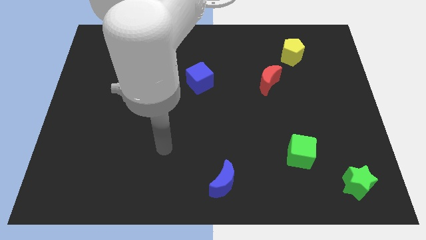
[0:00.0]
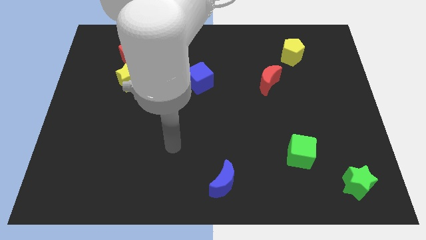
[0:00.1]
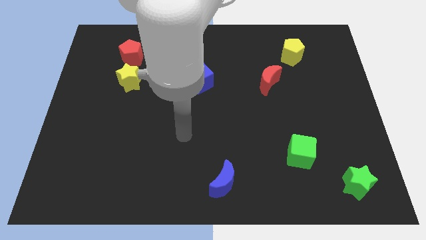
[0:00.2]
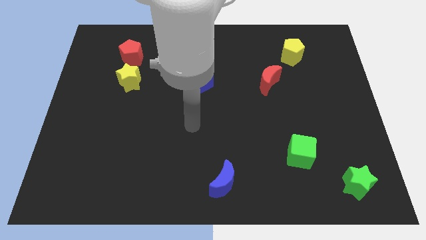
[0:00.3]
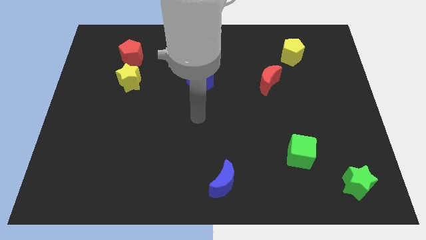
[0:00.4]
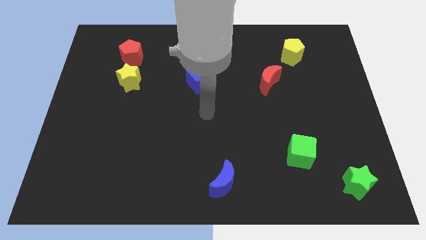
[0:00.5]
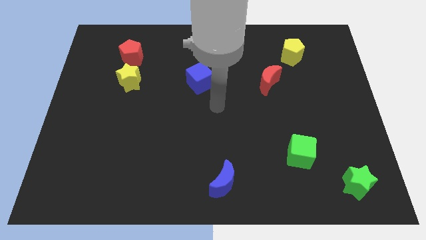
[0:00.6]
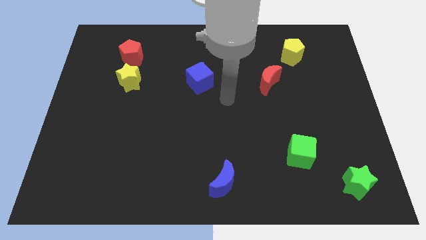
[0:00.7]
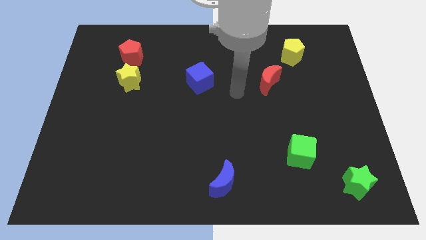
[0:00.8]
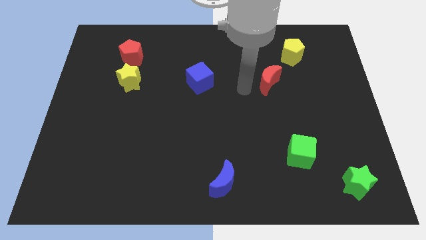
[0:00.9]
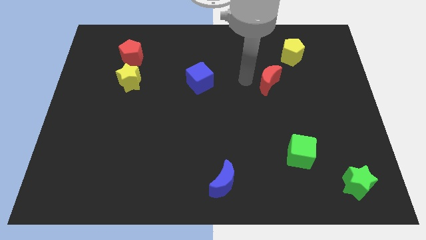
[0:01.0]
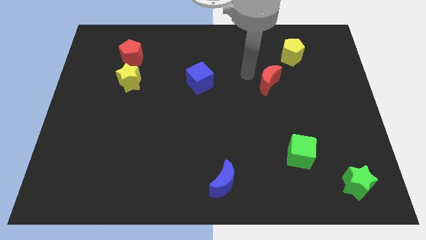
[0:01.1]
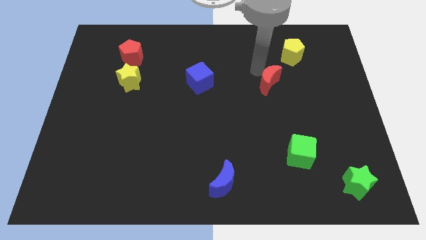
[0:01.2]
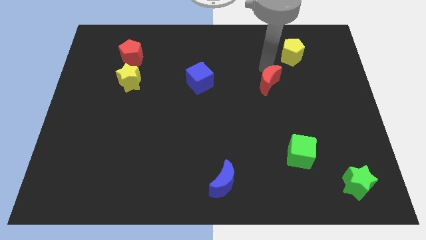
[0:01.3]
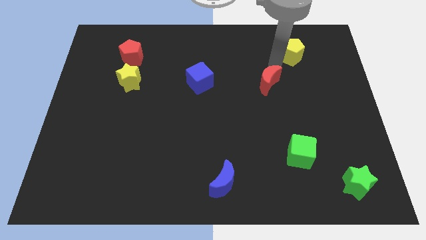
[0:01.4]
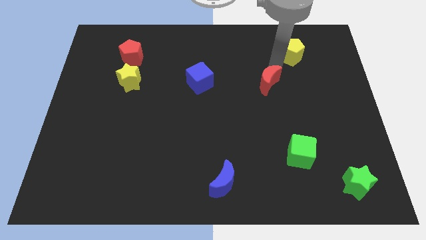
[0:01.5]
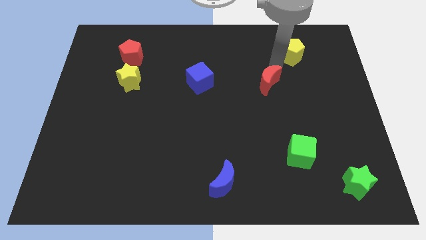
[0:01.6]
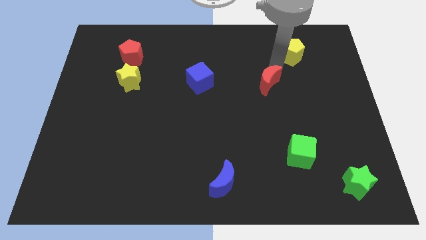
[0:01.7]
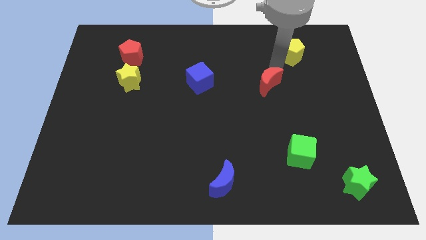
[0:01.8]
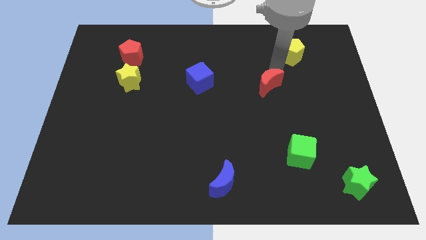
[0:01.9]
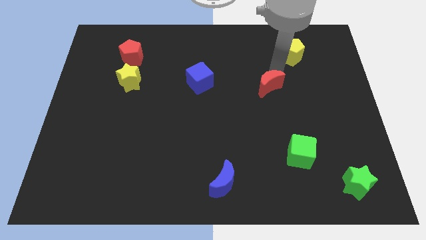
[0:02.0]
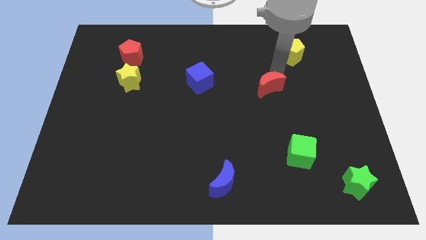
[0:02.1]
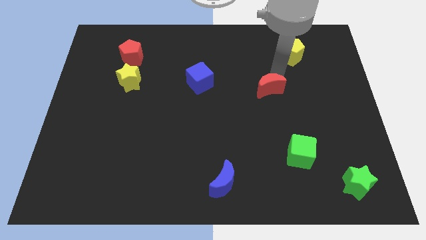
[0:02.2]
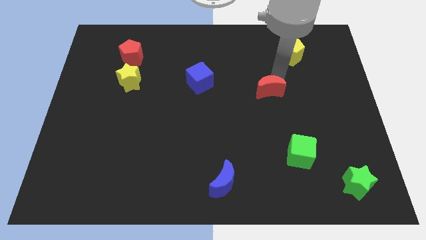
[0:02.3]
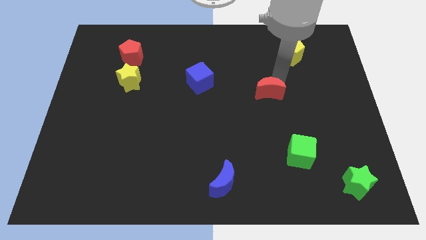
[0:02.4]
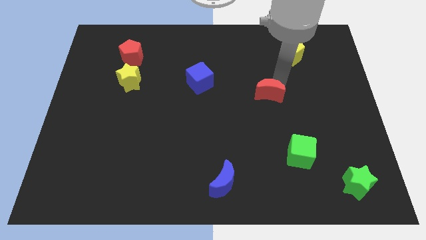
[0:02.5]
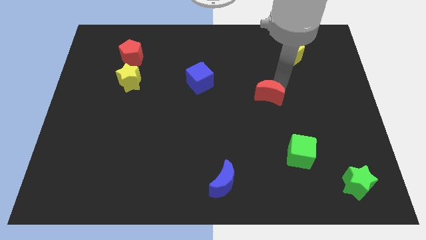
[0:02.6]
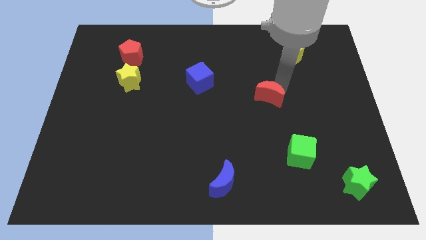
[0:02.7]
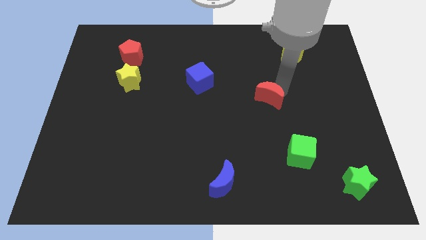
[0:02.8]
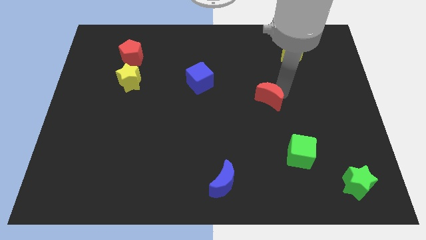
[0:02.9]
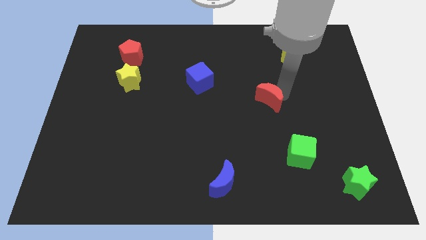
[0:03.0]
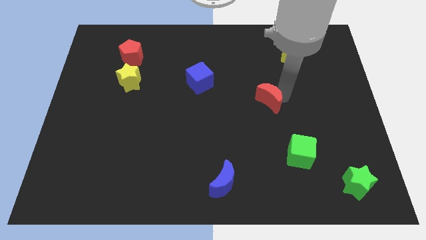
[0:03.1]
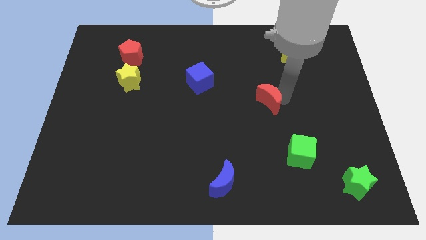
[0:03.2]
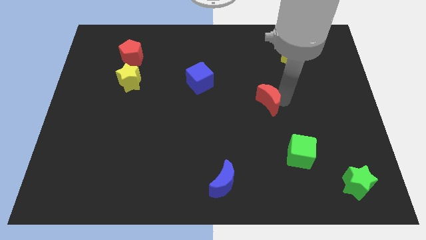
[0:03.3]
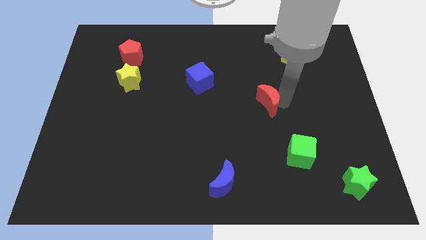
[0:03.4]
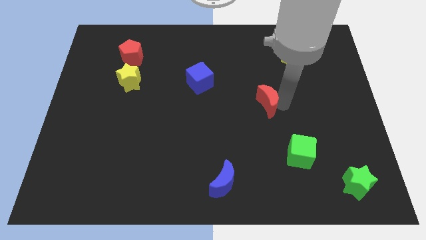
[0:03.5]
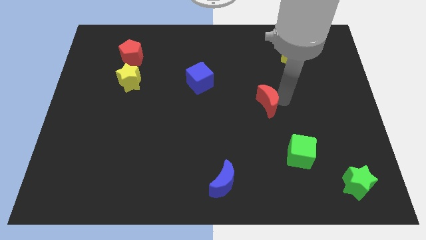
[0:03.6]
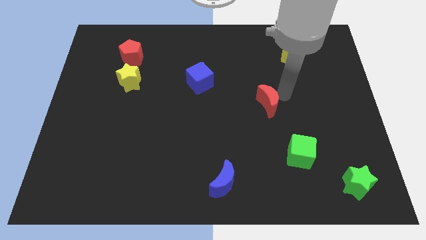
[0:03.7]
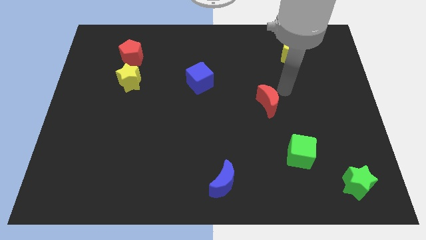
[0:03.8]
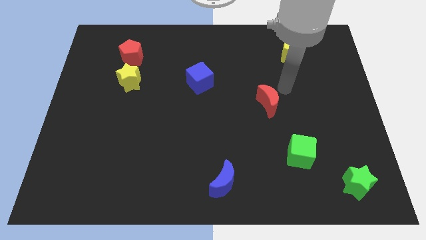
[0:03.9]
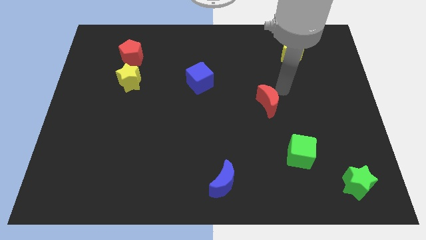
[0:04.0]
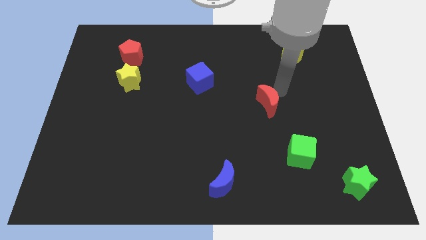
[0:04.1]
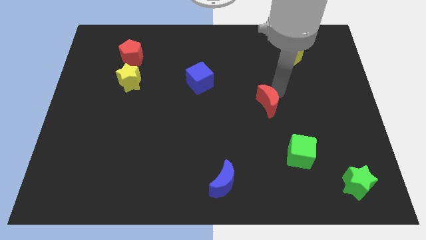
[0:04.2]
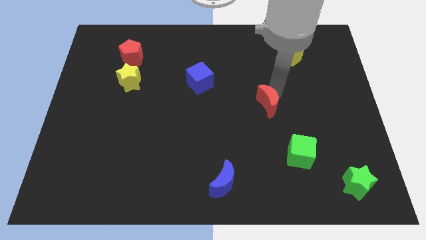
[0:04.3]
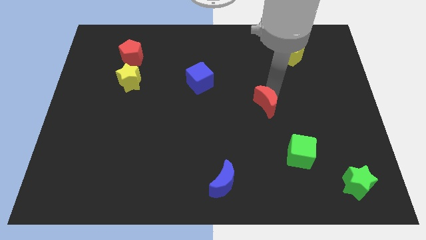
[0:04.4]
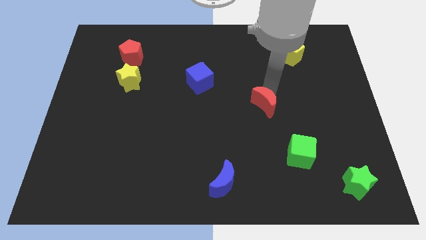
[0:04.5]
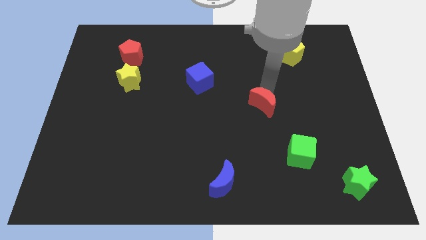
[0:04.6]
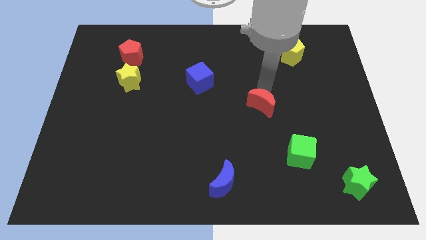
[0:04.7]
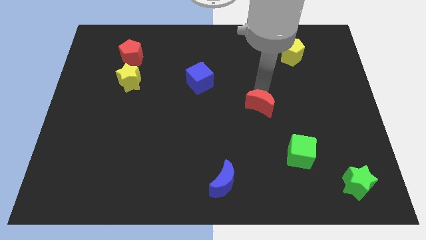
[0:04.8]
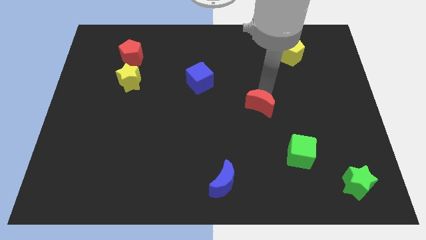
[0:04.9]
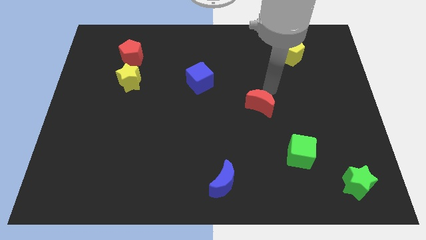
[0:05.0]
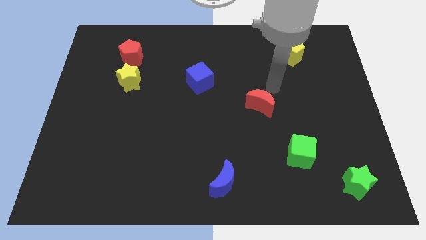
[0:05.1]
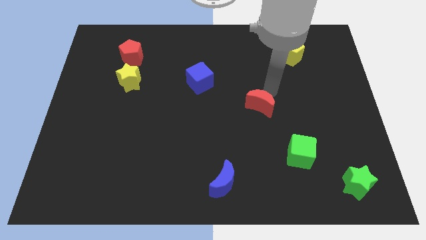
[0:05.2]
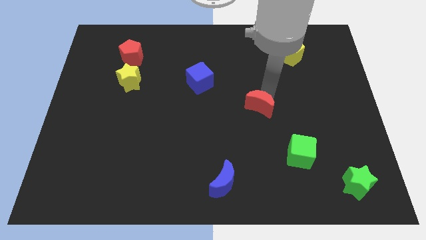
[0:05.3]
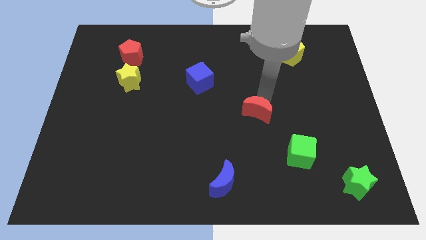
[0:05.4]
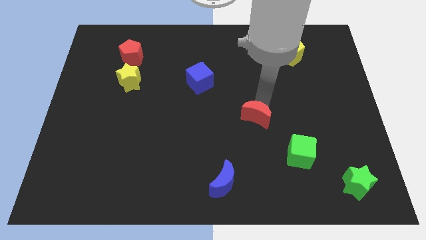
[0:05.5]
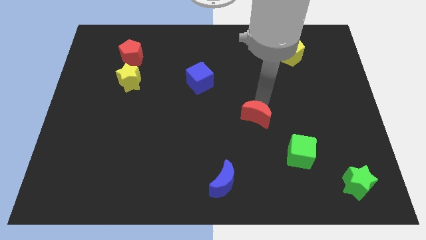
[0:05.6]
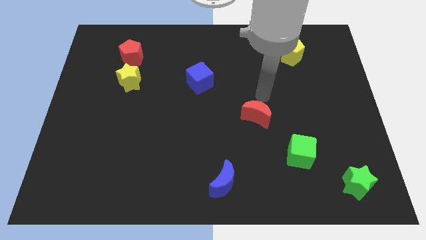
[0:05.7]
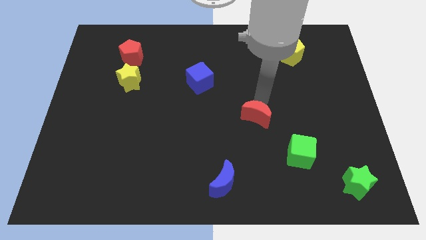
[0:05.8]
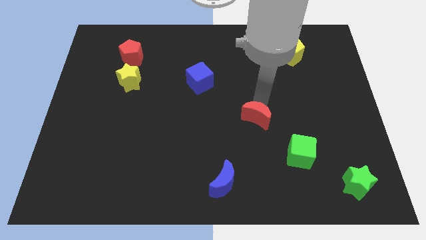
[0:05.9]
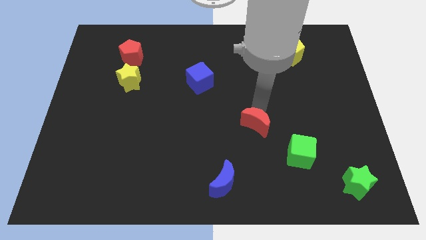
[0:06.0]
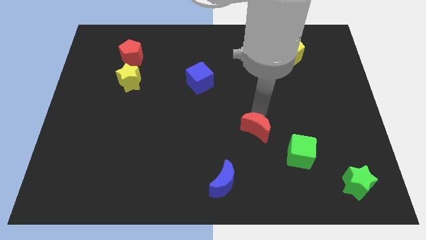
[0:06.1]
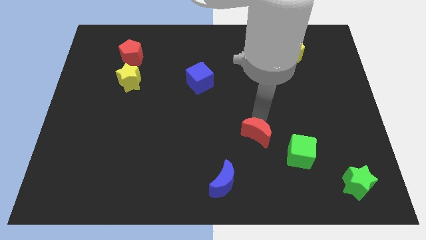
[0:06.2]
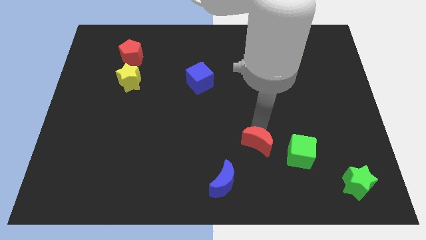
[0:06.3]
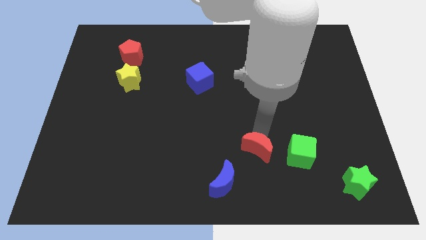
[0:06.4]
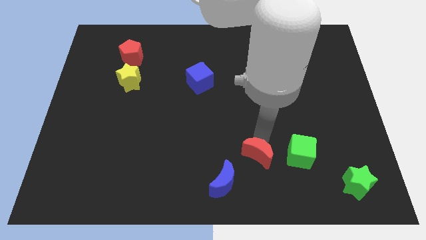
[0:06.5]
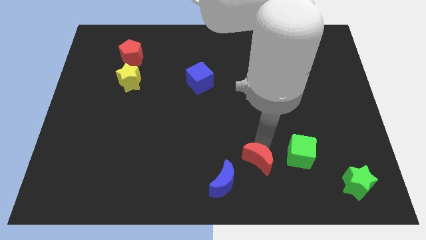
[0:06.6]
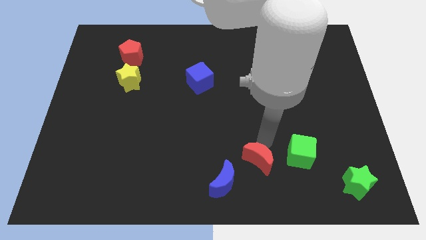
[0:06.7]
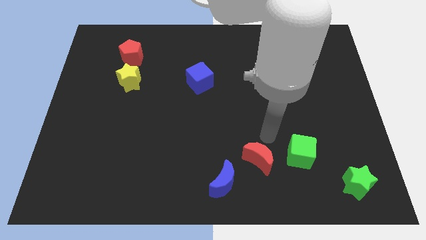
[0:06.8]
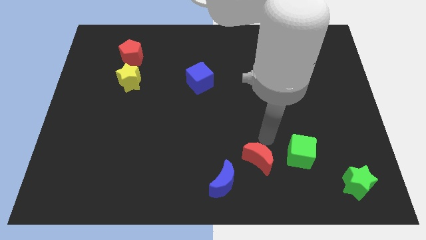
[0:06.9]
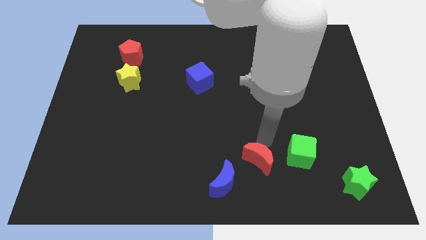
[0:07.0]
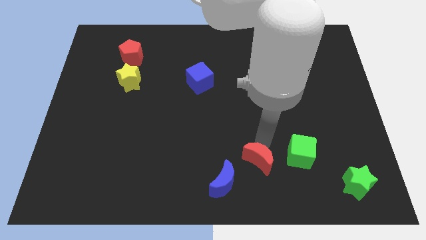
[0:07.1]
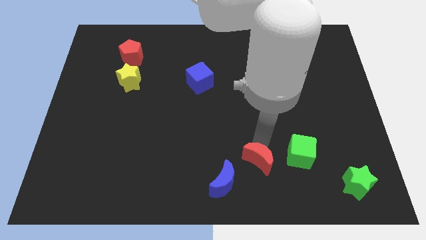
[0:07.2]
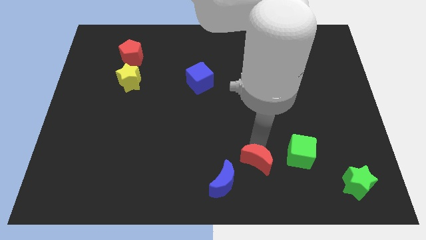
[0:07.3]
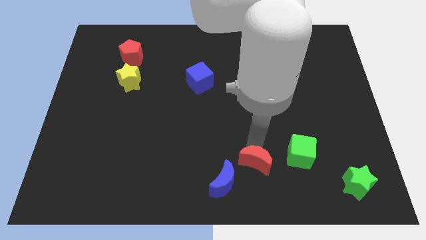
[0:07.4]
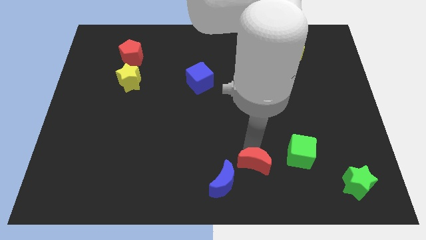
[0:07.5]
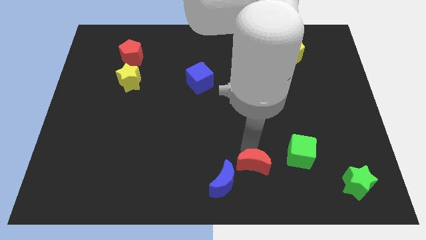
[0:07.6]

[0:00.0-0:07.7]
push the red moon to the bottom side
